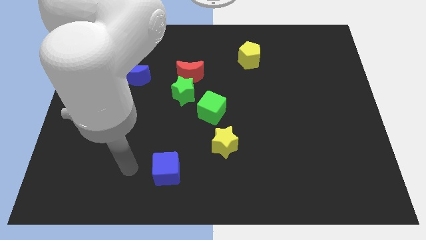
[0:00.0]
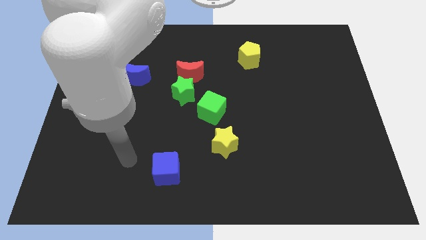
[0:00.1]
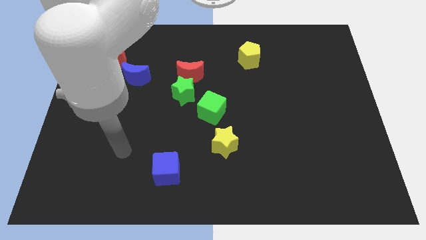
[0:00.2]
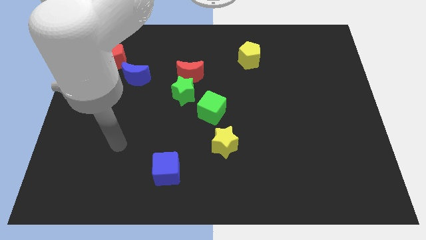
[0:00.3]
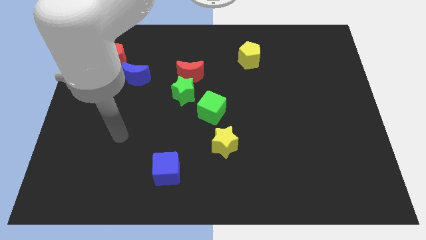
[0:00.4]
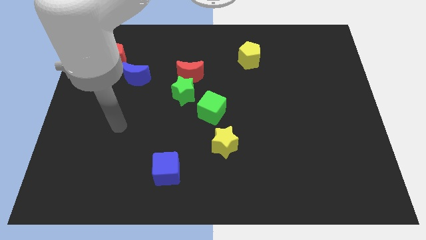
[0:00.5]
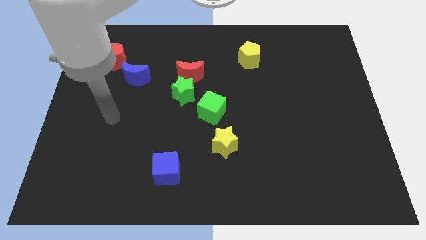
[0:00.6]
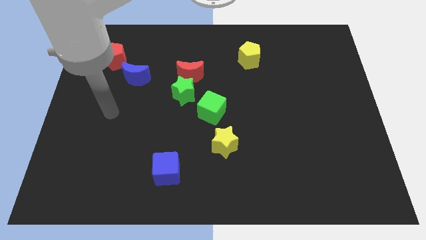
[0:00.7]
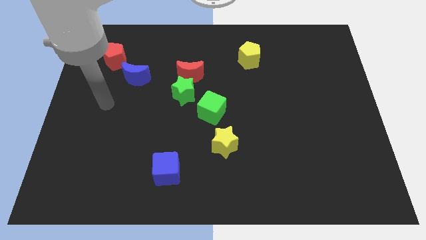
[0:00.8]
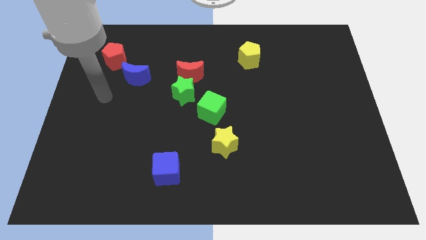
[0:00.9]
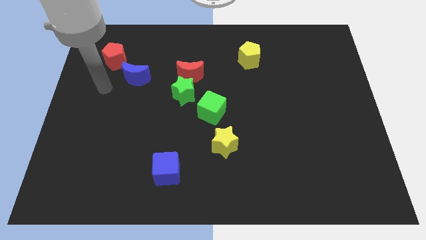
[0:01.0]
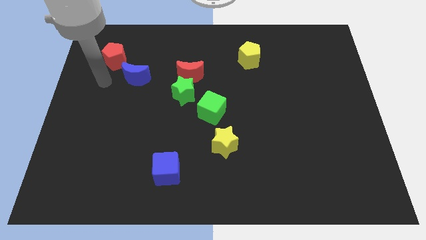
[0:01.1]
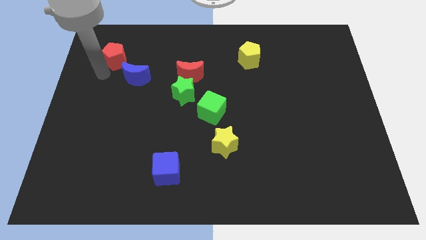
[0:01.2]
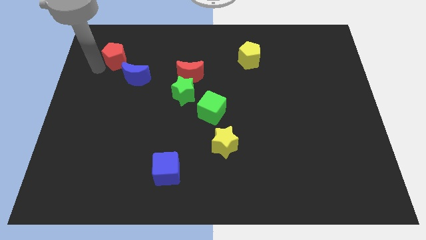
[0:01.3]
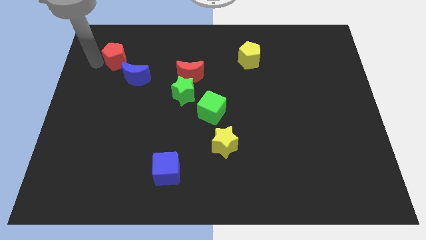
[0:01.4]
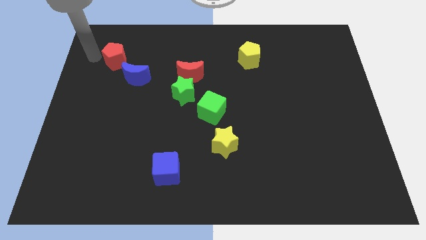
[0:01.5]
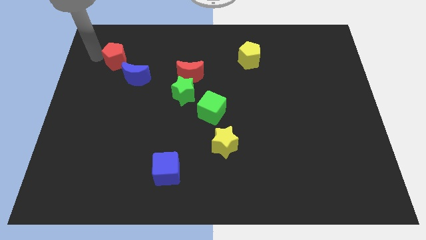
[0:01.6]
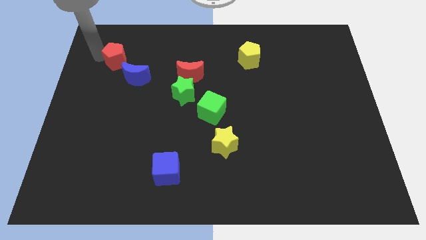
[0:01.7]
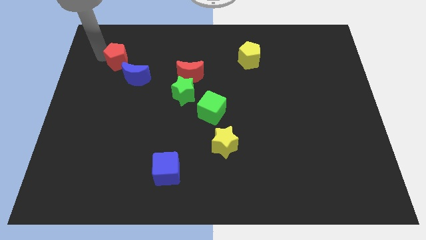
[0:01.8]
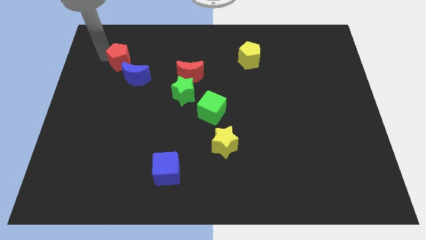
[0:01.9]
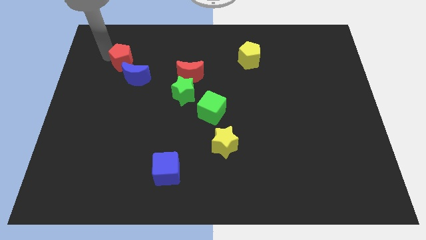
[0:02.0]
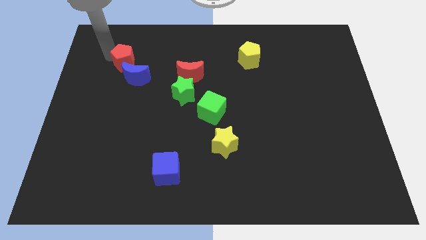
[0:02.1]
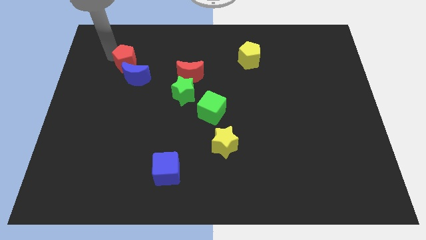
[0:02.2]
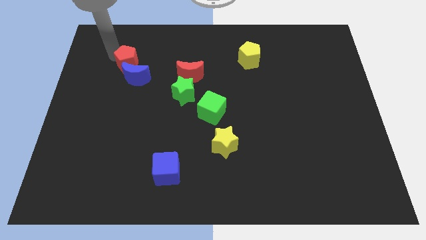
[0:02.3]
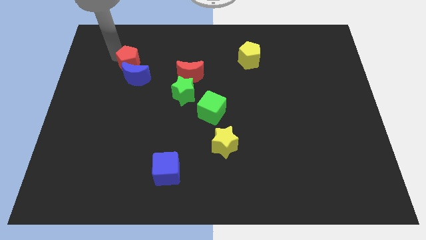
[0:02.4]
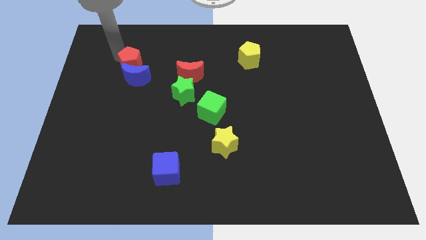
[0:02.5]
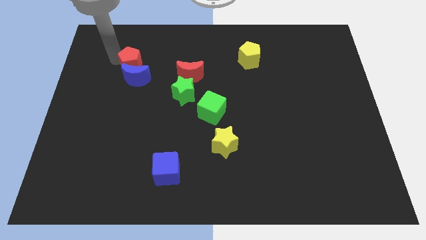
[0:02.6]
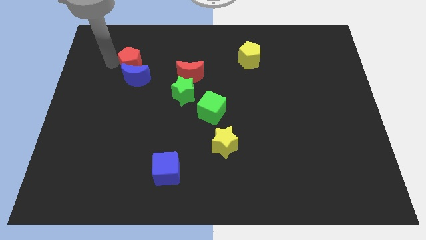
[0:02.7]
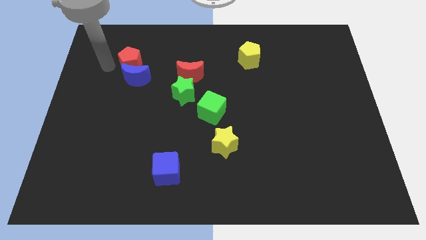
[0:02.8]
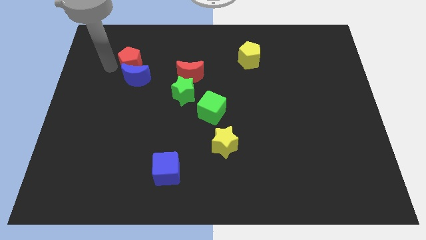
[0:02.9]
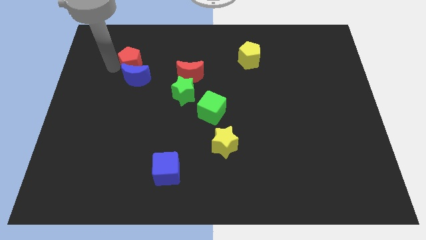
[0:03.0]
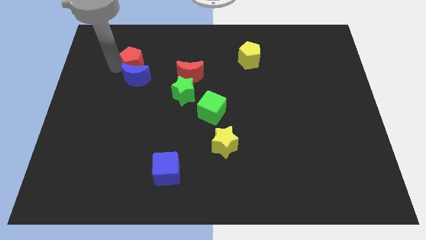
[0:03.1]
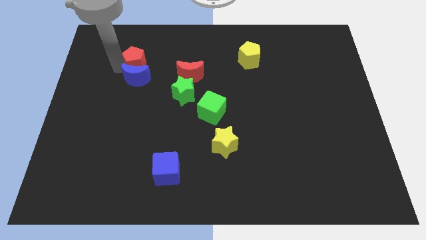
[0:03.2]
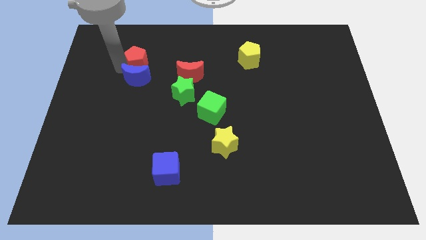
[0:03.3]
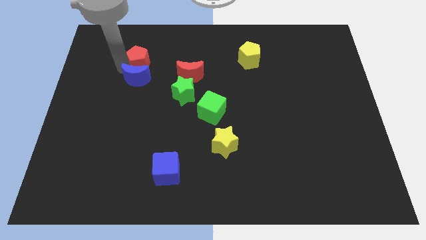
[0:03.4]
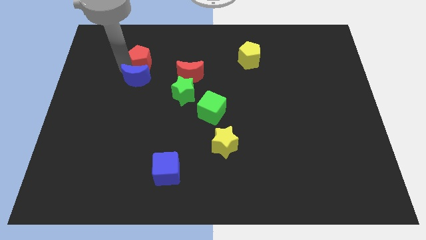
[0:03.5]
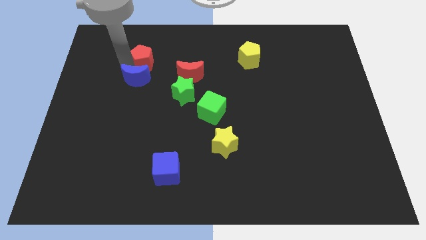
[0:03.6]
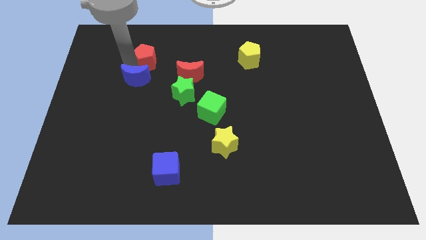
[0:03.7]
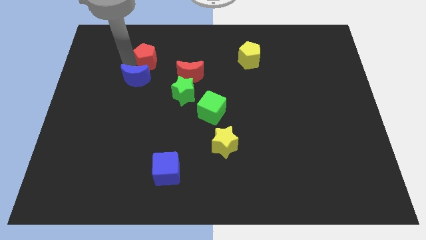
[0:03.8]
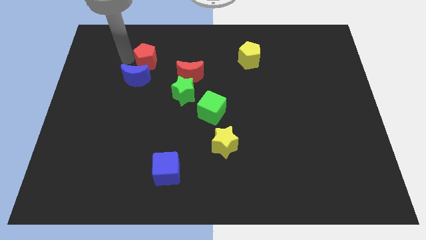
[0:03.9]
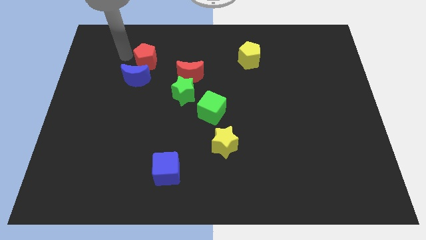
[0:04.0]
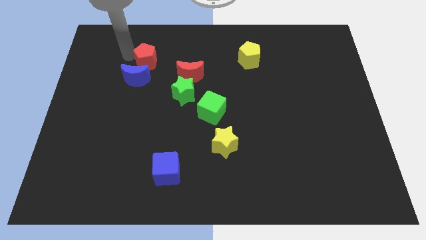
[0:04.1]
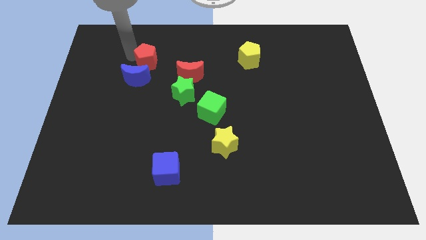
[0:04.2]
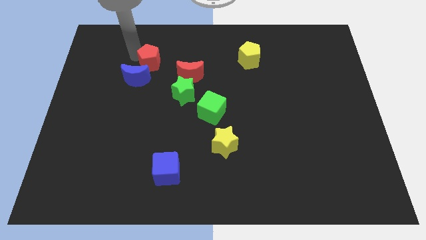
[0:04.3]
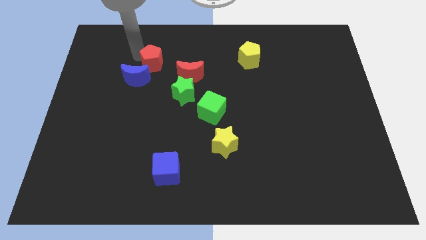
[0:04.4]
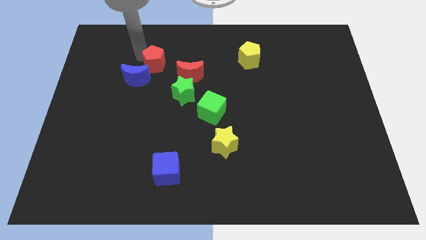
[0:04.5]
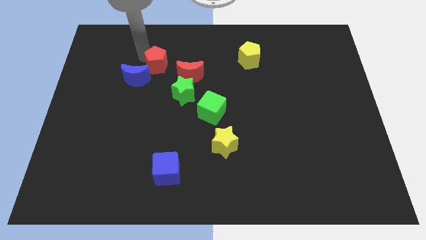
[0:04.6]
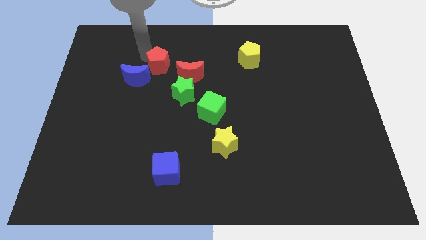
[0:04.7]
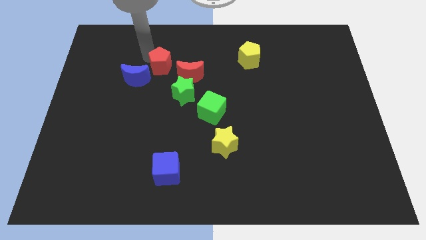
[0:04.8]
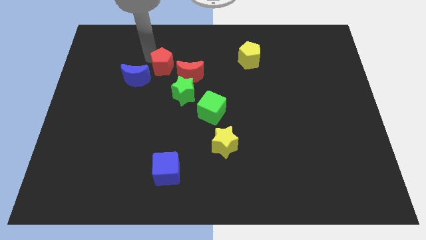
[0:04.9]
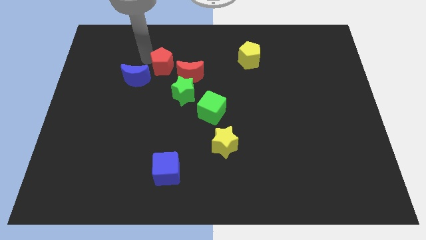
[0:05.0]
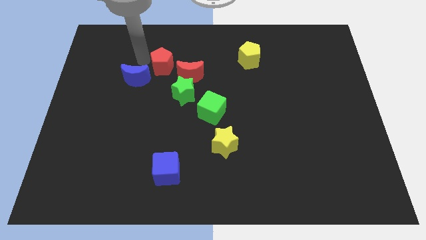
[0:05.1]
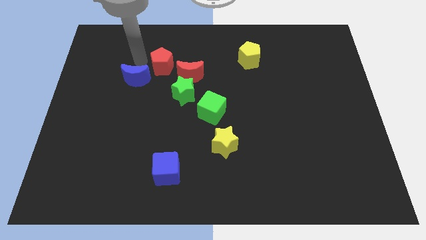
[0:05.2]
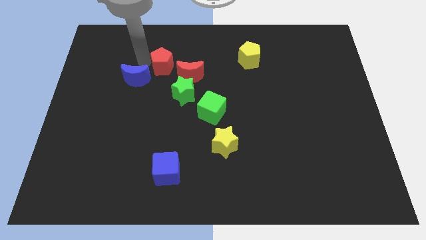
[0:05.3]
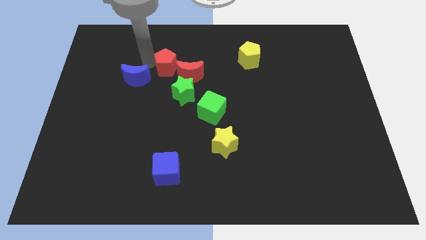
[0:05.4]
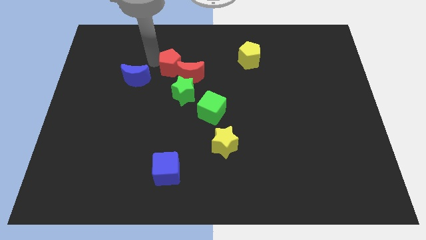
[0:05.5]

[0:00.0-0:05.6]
put the red pentagon close to the red moon

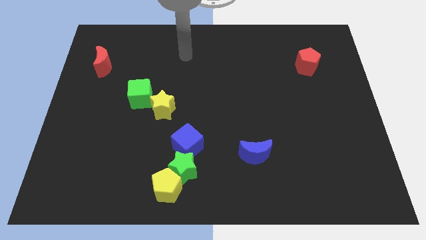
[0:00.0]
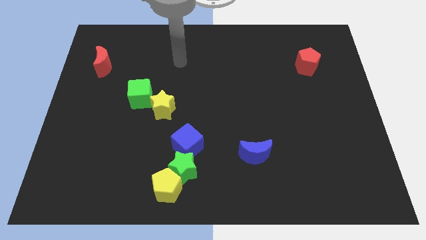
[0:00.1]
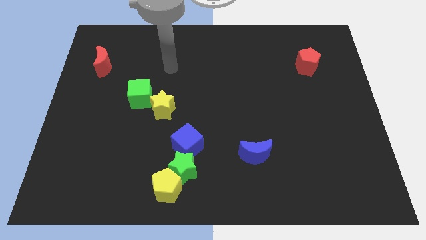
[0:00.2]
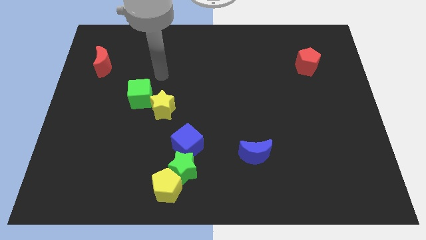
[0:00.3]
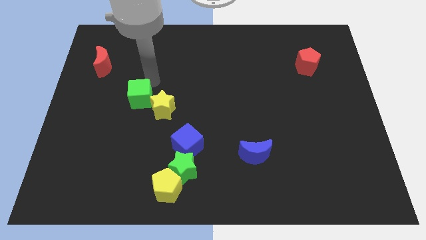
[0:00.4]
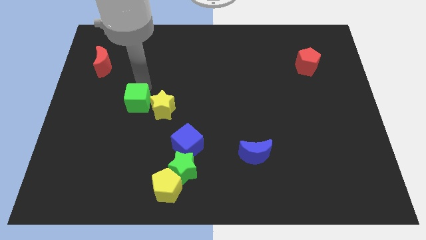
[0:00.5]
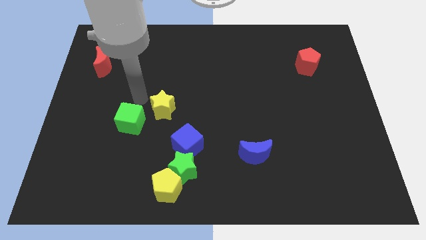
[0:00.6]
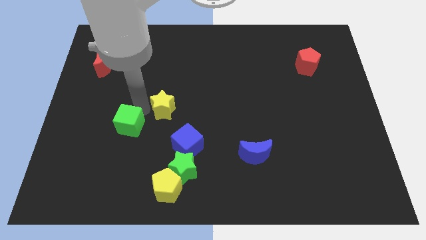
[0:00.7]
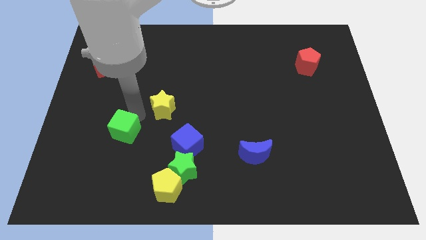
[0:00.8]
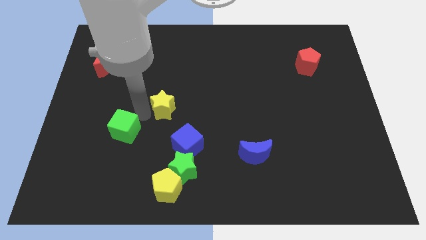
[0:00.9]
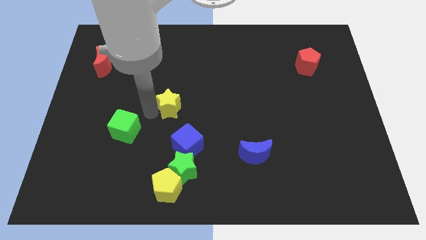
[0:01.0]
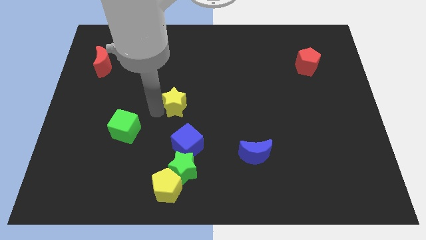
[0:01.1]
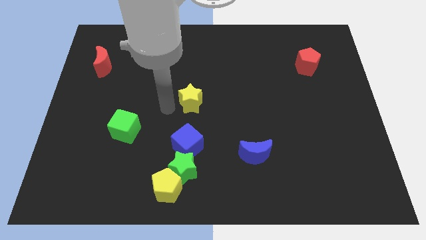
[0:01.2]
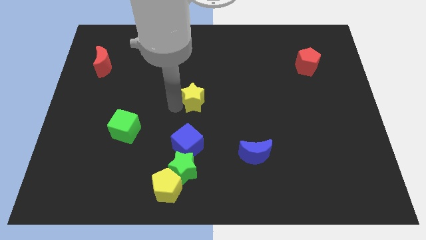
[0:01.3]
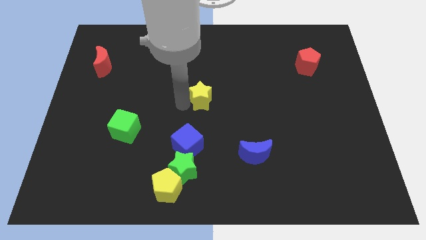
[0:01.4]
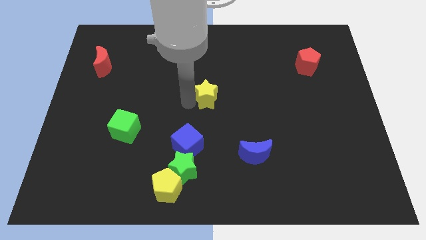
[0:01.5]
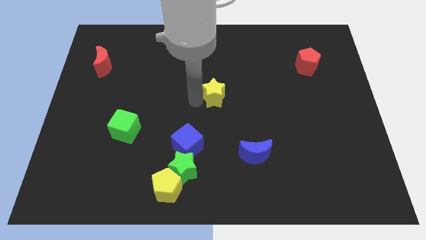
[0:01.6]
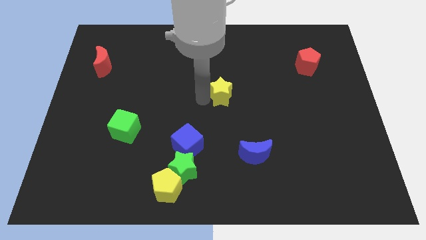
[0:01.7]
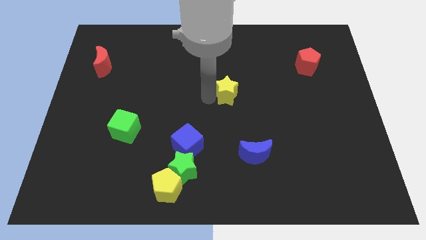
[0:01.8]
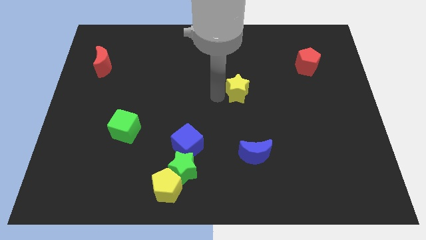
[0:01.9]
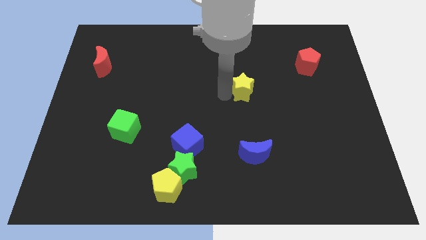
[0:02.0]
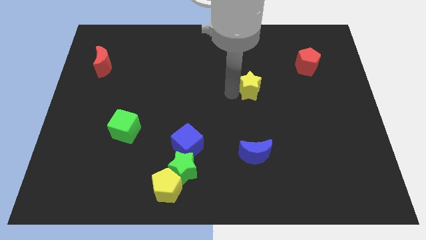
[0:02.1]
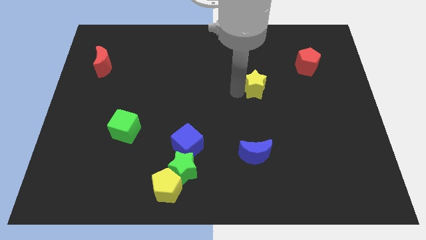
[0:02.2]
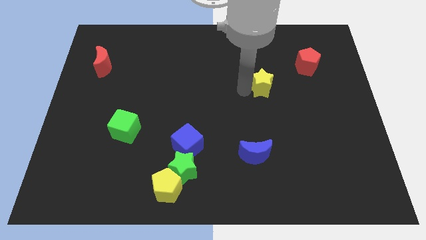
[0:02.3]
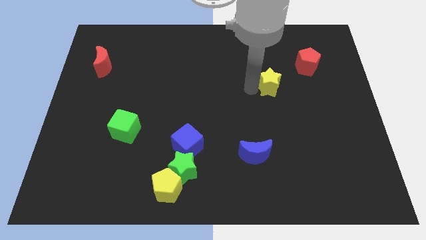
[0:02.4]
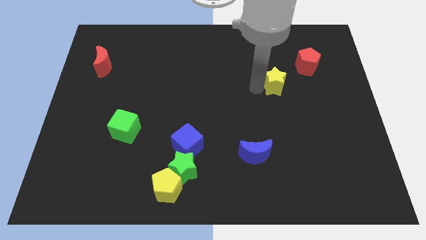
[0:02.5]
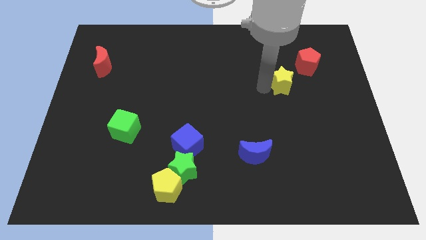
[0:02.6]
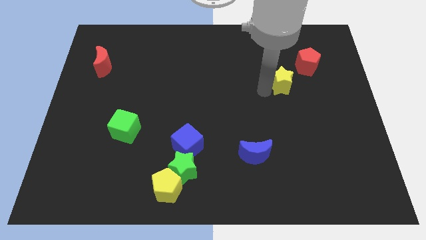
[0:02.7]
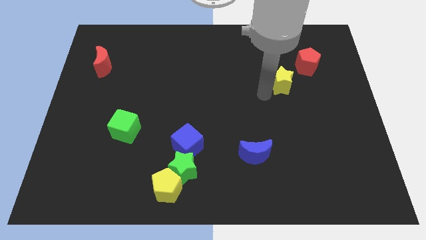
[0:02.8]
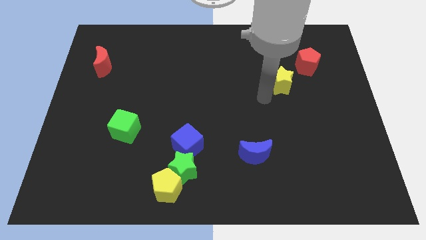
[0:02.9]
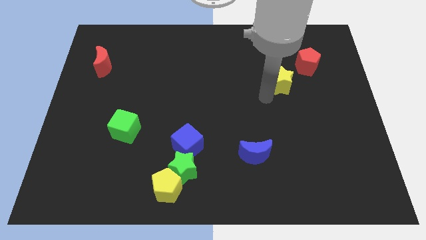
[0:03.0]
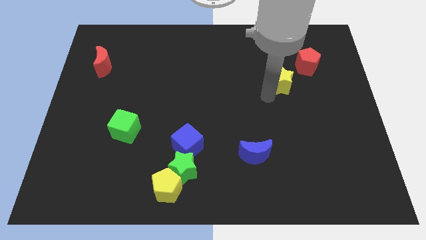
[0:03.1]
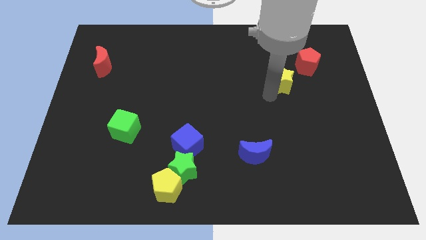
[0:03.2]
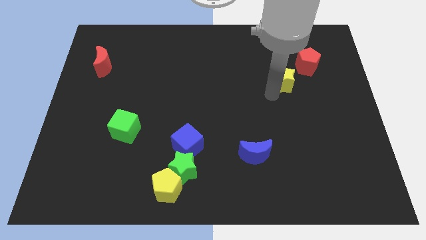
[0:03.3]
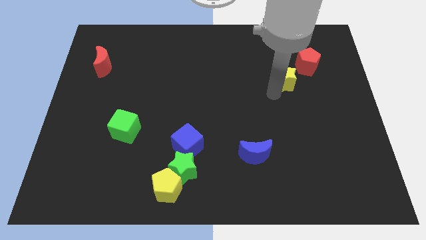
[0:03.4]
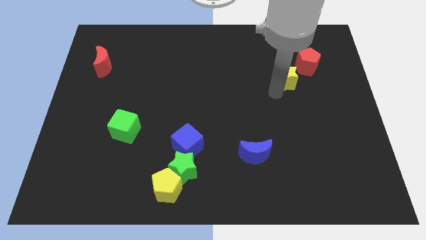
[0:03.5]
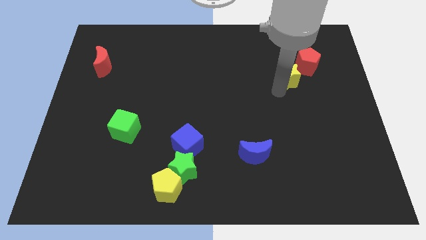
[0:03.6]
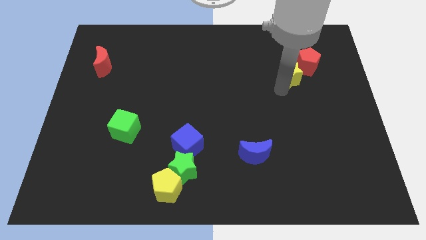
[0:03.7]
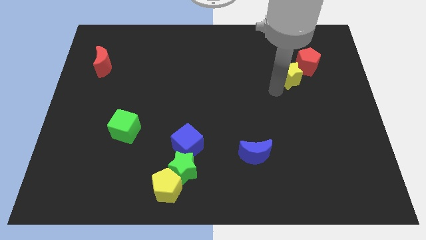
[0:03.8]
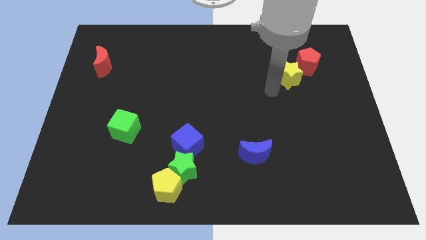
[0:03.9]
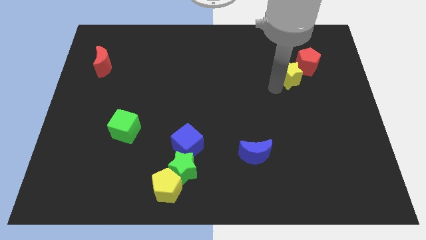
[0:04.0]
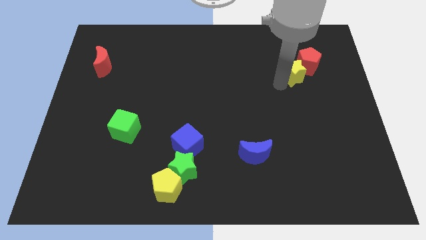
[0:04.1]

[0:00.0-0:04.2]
push the yellow star to the red pentagon
